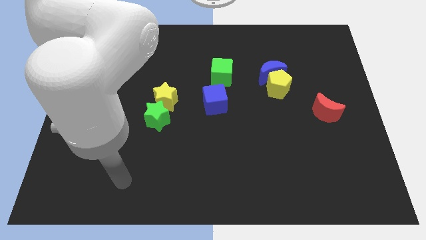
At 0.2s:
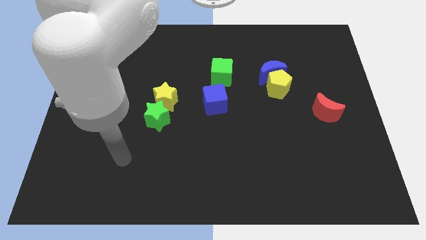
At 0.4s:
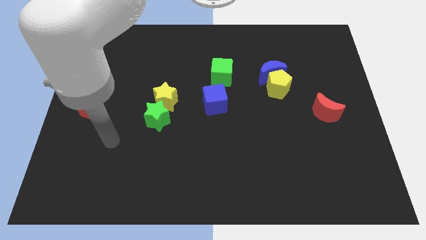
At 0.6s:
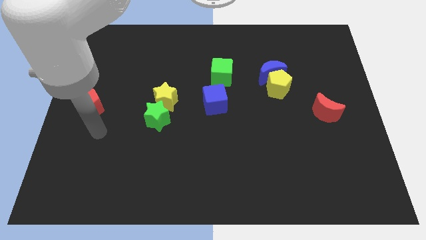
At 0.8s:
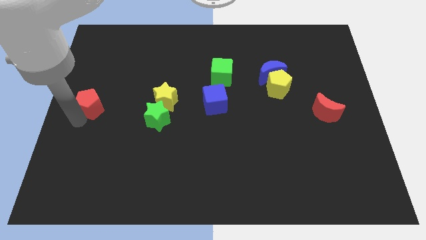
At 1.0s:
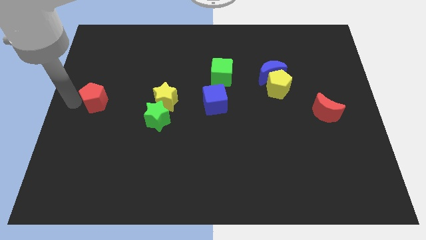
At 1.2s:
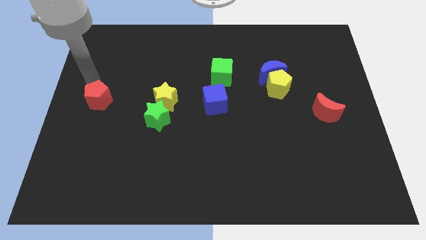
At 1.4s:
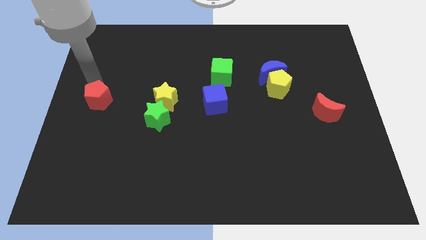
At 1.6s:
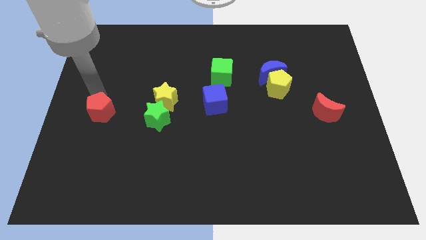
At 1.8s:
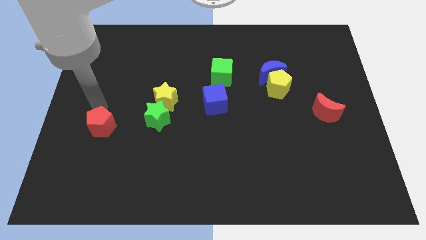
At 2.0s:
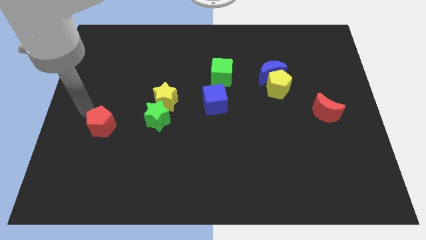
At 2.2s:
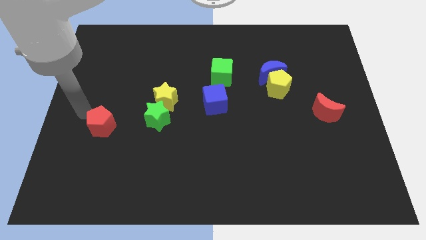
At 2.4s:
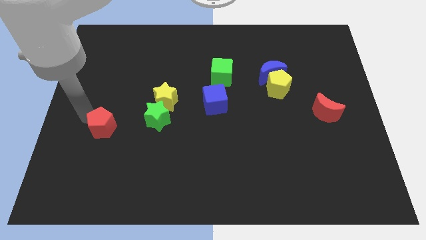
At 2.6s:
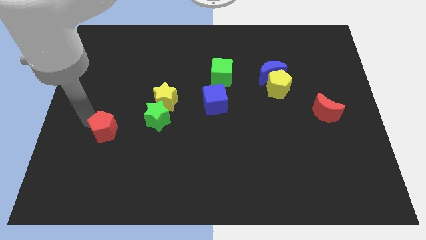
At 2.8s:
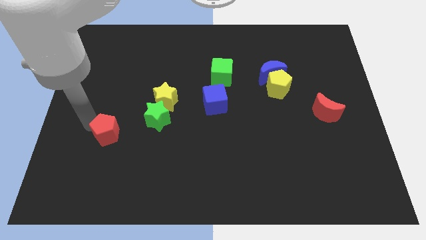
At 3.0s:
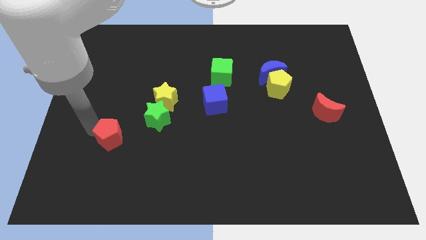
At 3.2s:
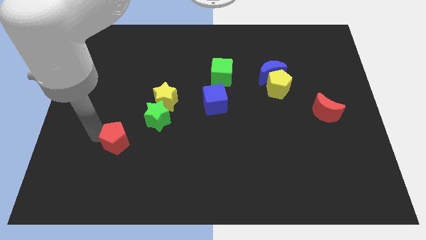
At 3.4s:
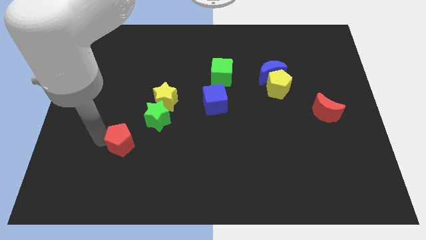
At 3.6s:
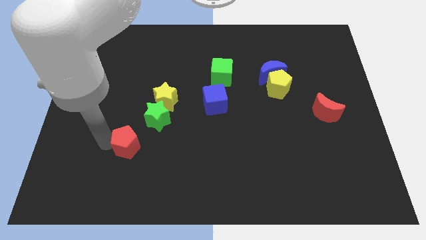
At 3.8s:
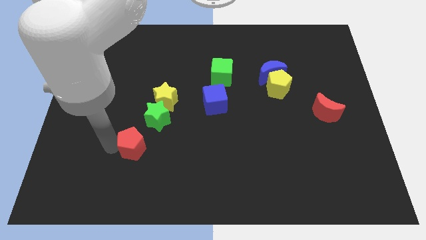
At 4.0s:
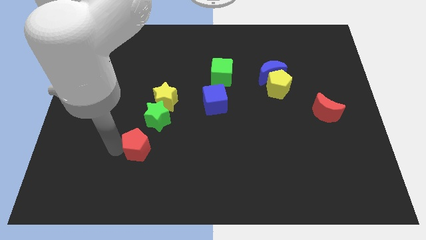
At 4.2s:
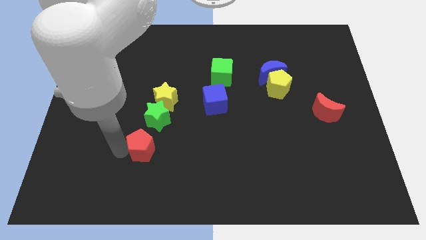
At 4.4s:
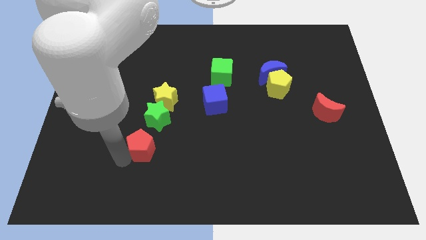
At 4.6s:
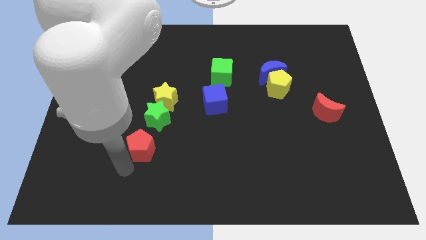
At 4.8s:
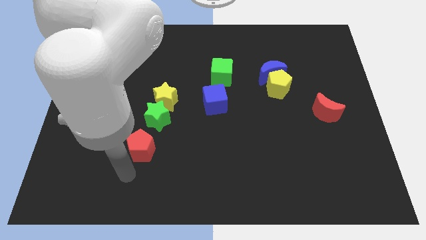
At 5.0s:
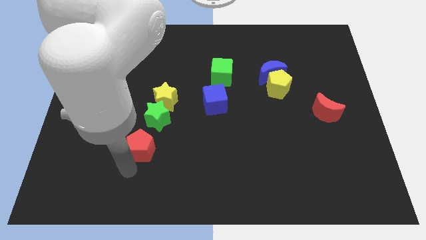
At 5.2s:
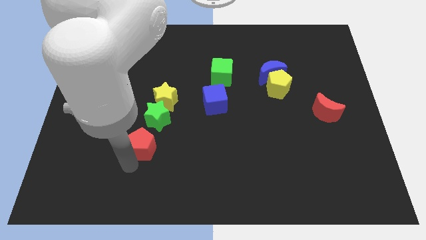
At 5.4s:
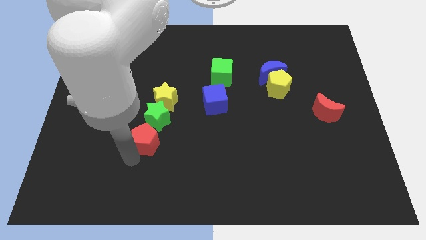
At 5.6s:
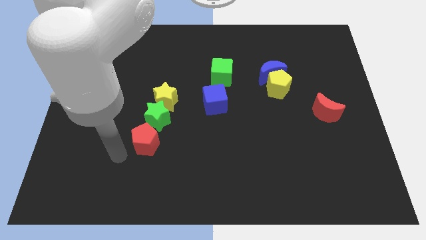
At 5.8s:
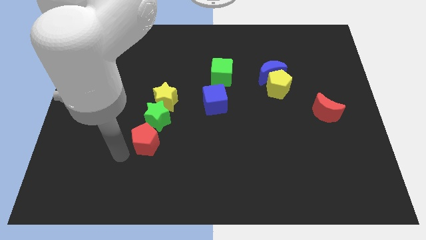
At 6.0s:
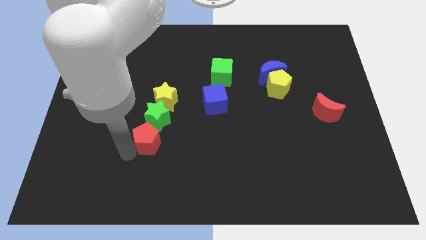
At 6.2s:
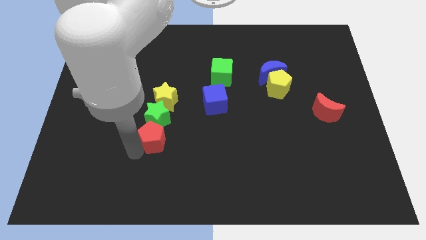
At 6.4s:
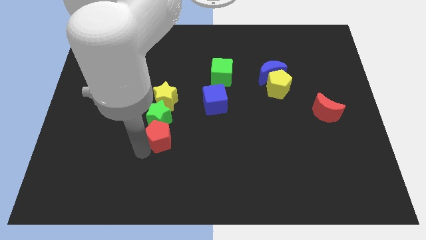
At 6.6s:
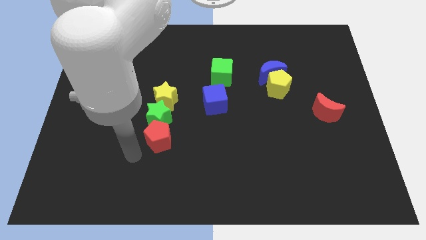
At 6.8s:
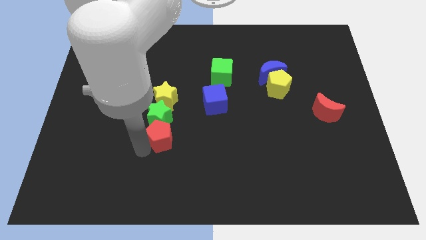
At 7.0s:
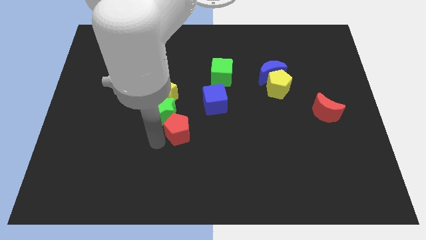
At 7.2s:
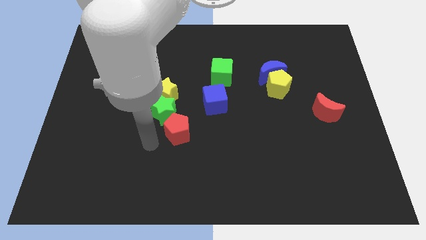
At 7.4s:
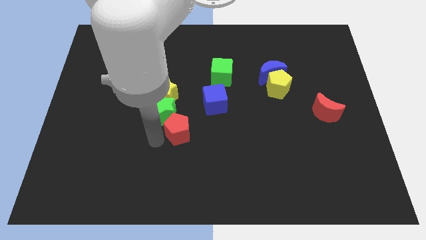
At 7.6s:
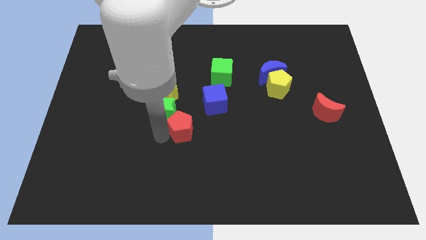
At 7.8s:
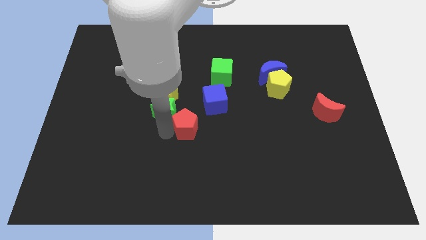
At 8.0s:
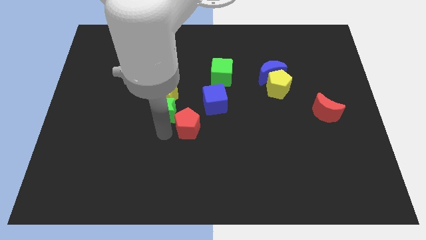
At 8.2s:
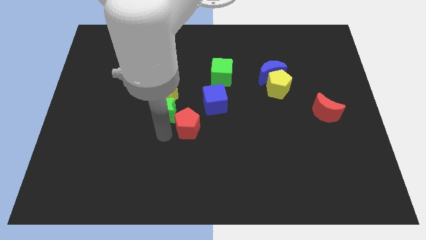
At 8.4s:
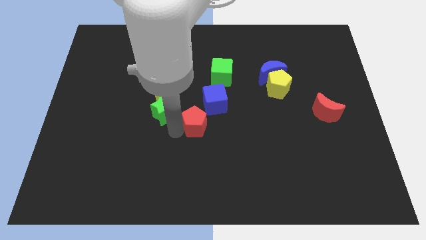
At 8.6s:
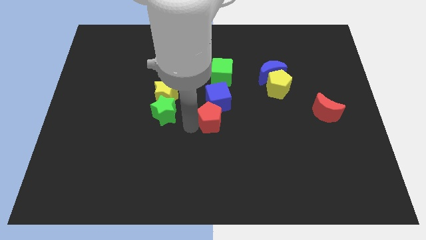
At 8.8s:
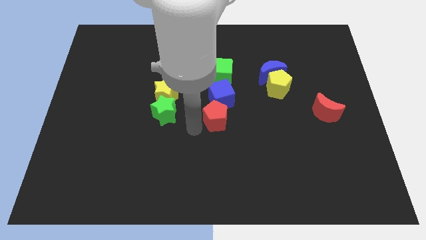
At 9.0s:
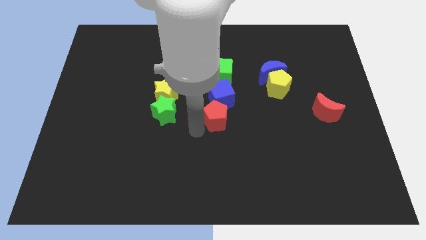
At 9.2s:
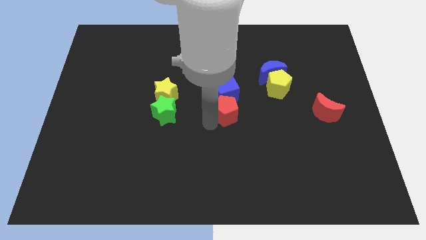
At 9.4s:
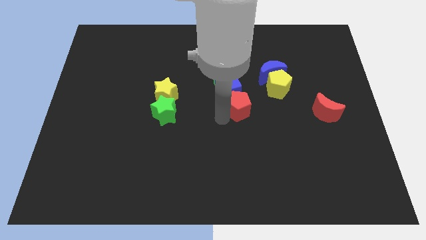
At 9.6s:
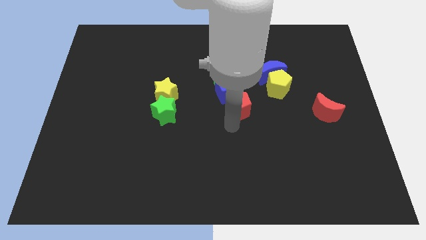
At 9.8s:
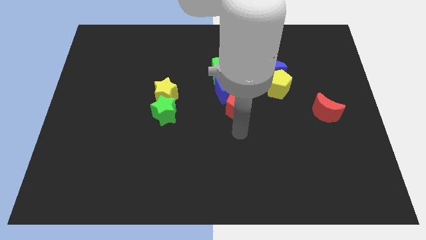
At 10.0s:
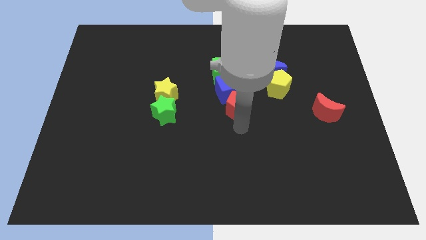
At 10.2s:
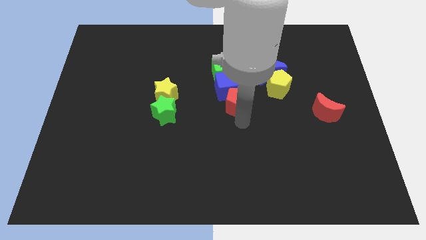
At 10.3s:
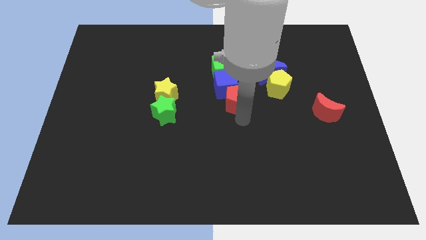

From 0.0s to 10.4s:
slide the red pentagon to the left side of the yellow pentagon

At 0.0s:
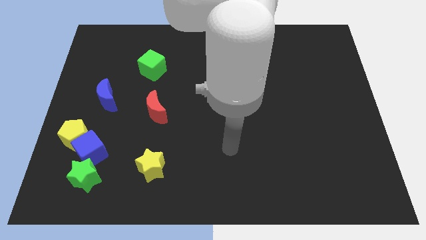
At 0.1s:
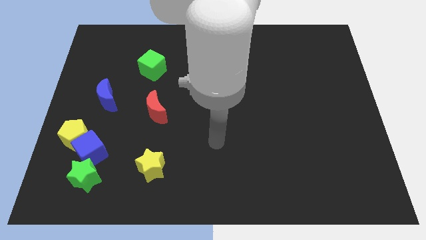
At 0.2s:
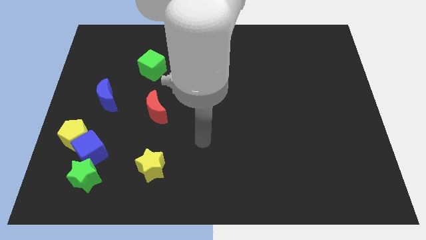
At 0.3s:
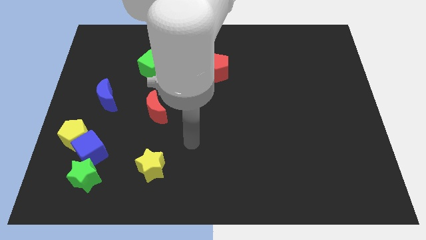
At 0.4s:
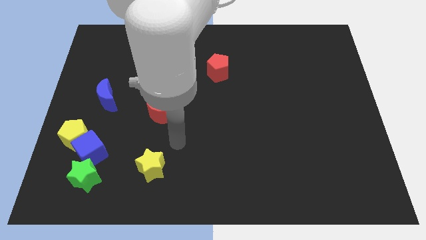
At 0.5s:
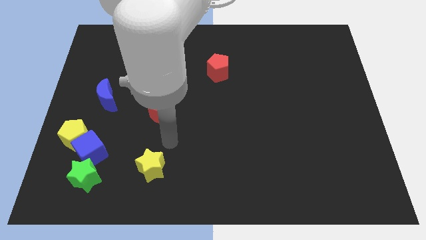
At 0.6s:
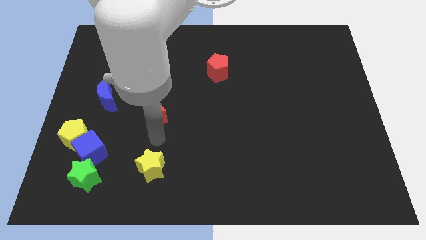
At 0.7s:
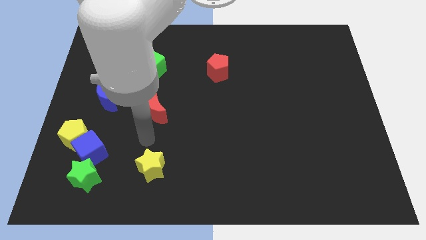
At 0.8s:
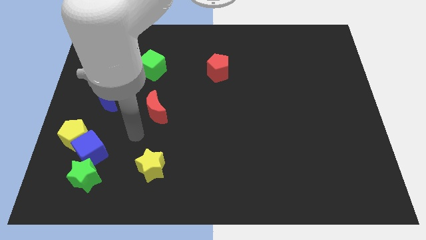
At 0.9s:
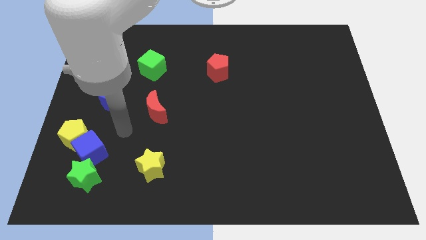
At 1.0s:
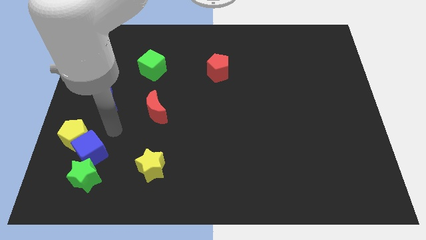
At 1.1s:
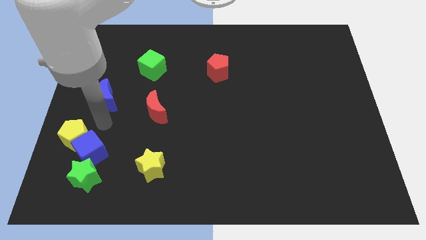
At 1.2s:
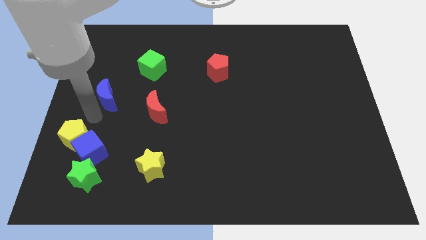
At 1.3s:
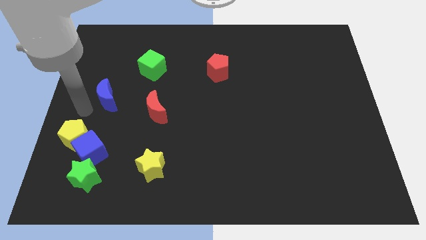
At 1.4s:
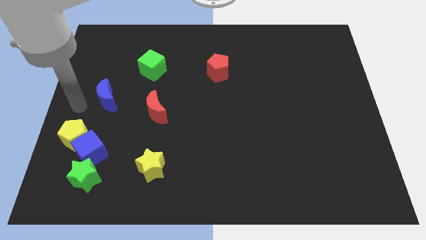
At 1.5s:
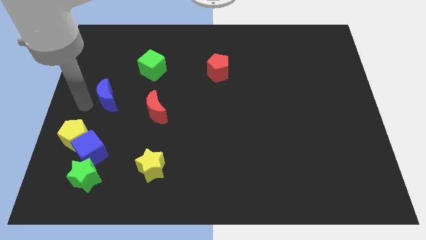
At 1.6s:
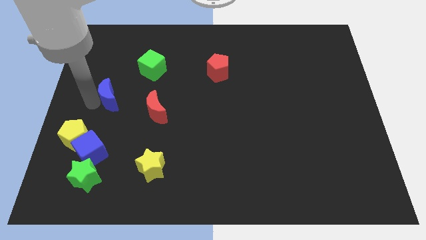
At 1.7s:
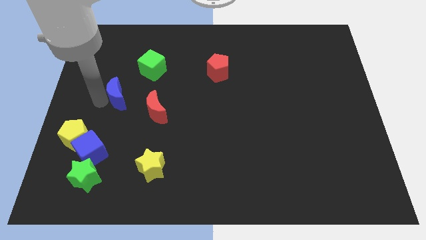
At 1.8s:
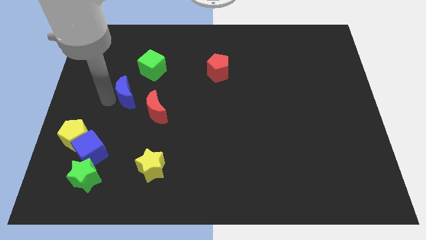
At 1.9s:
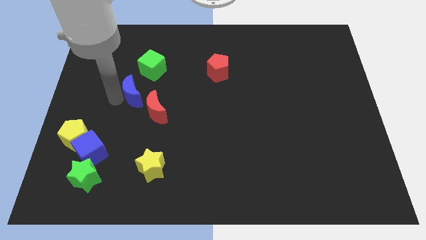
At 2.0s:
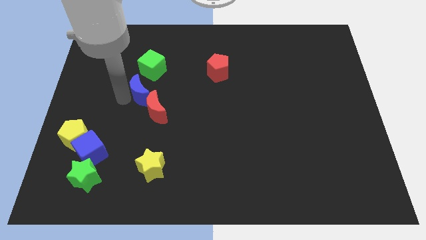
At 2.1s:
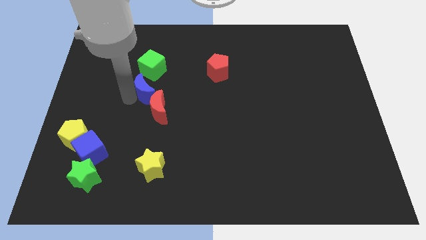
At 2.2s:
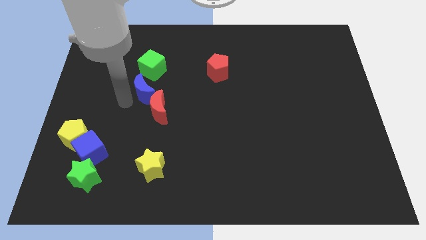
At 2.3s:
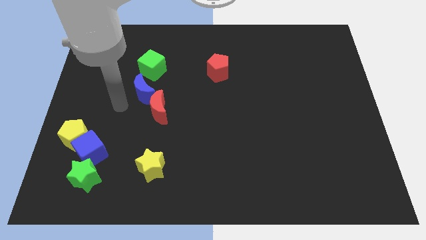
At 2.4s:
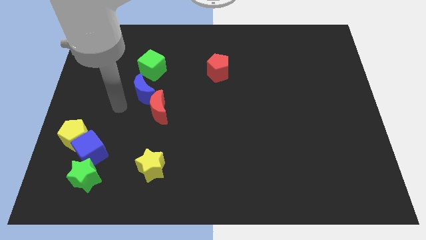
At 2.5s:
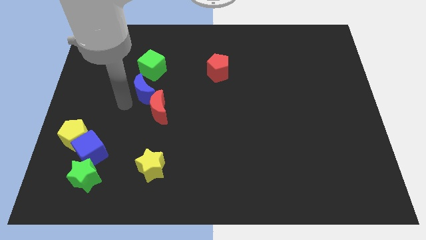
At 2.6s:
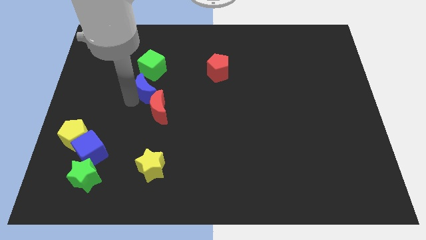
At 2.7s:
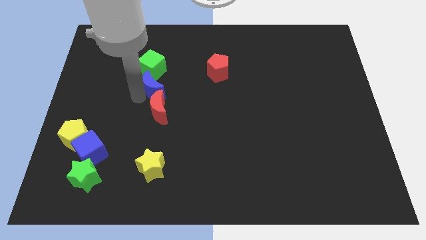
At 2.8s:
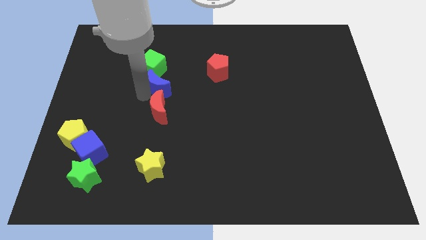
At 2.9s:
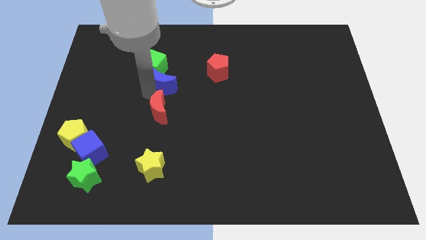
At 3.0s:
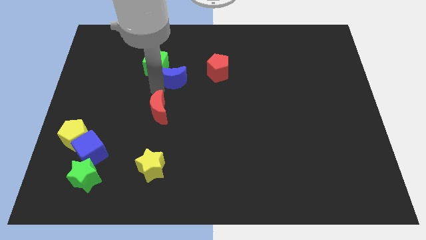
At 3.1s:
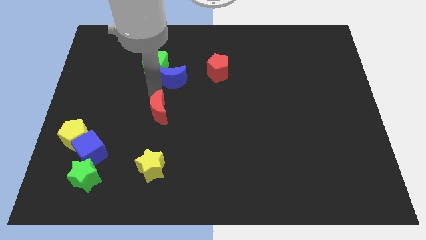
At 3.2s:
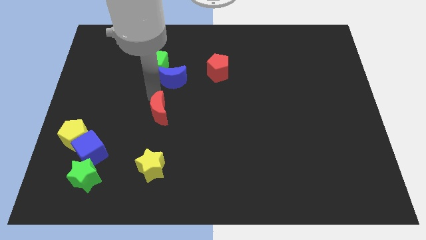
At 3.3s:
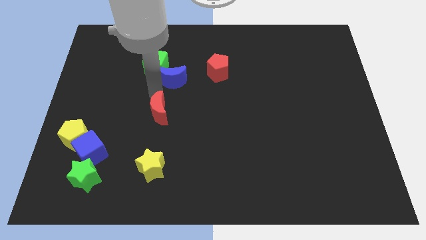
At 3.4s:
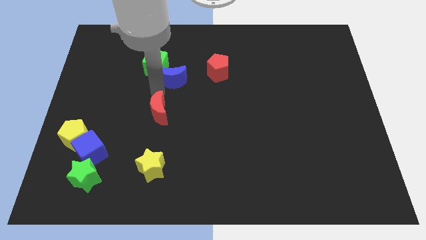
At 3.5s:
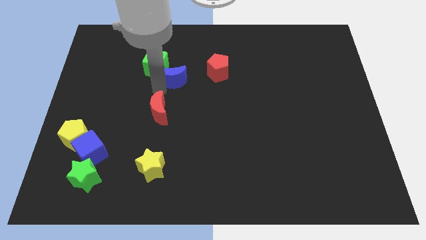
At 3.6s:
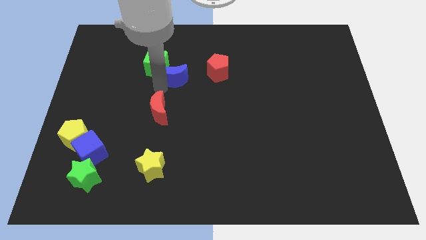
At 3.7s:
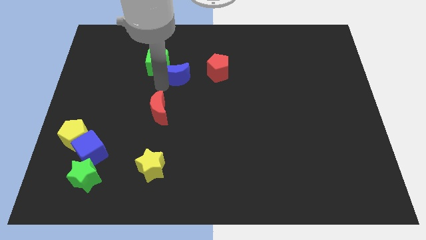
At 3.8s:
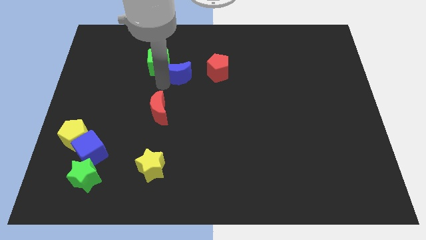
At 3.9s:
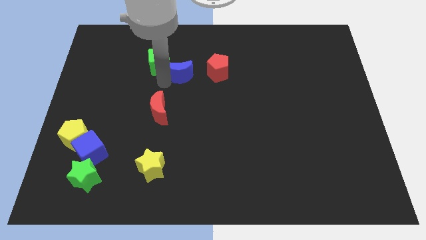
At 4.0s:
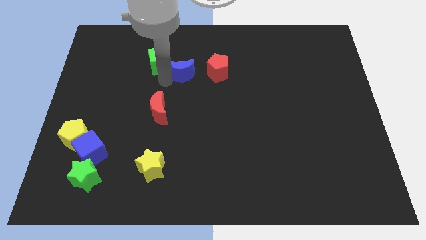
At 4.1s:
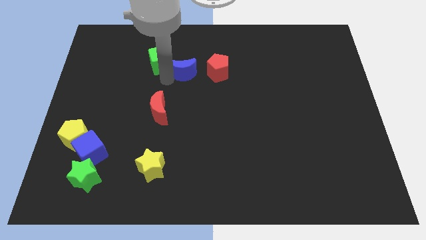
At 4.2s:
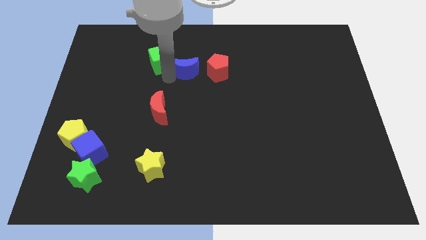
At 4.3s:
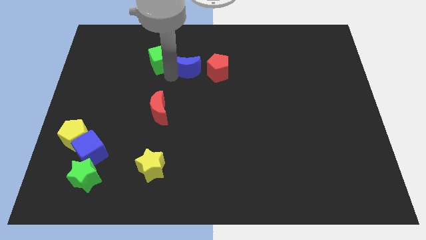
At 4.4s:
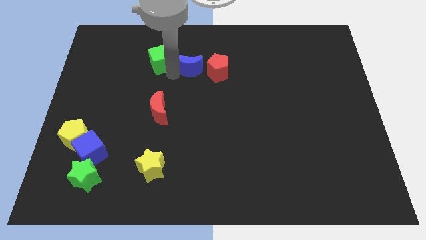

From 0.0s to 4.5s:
move the blue moon diagonally up and to the left of the red pentagon
